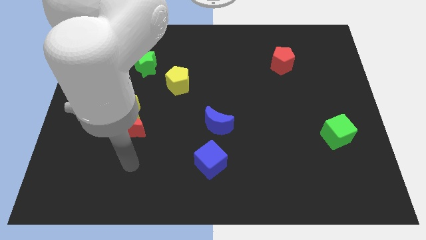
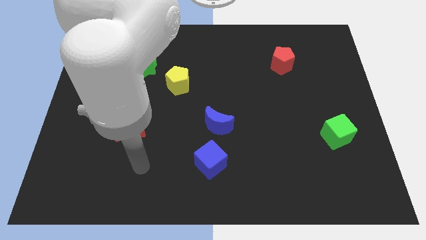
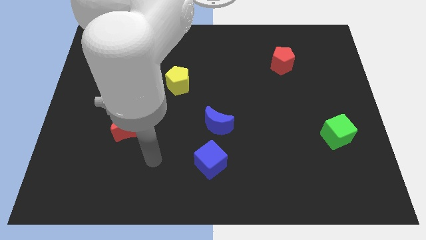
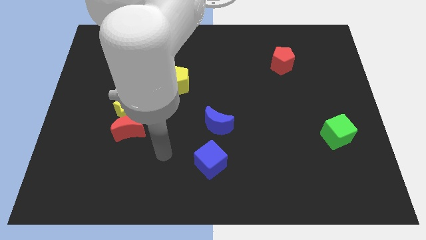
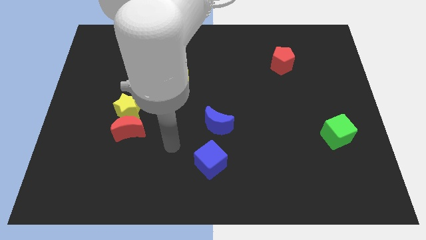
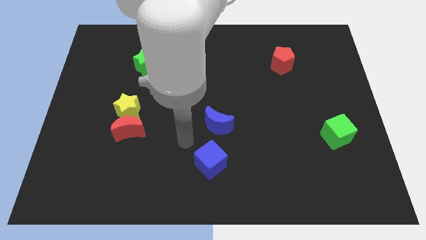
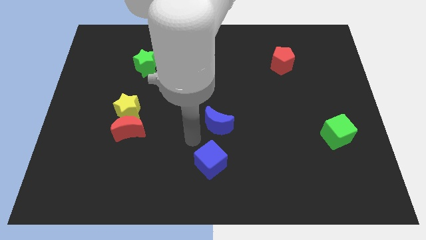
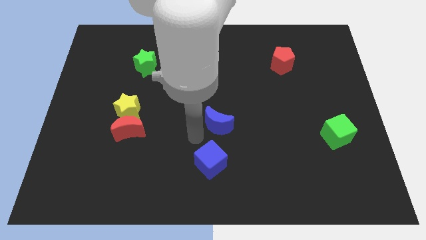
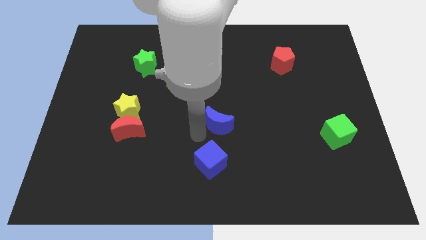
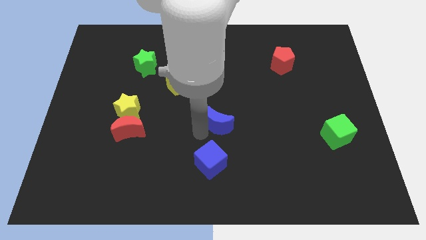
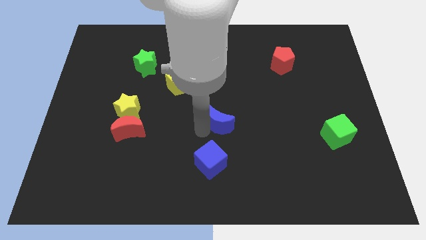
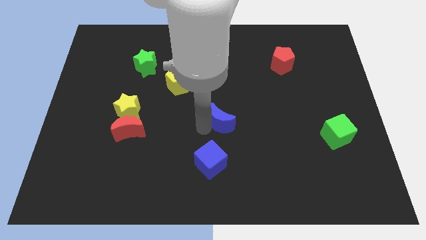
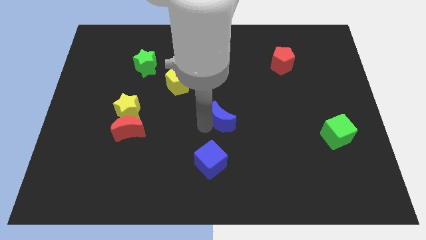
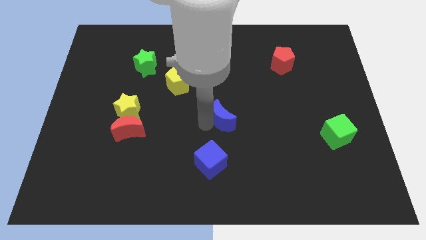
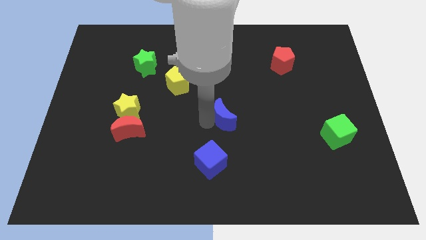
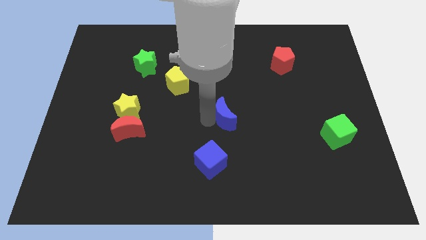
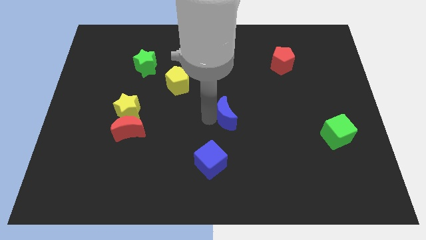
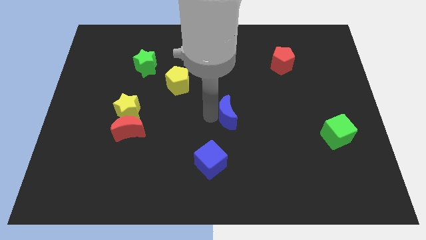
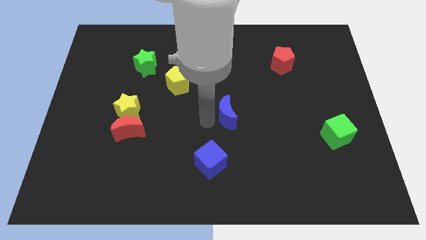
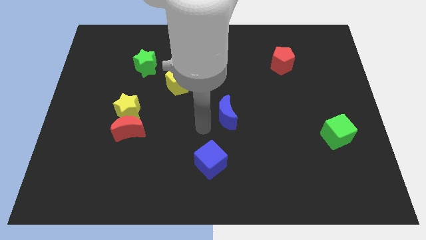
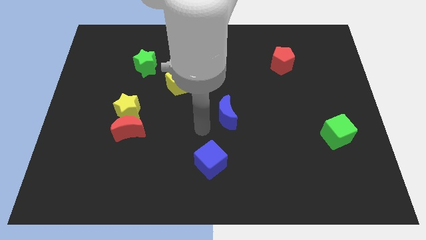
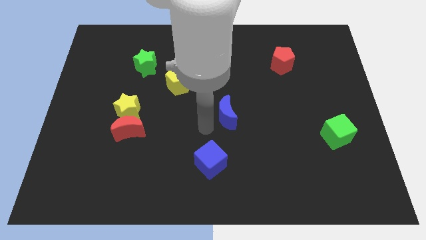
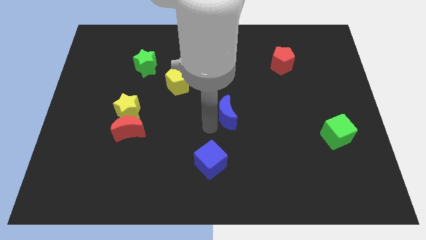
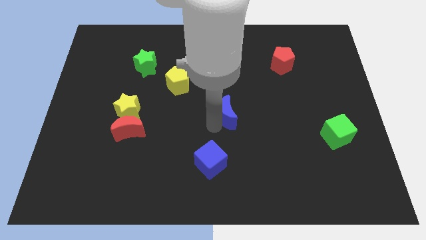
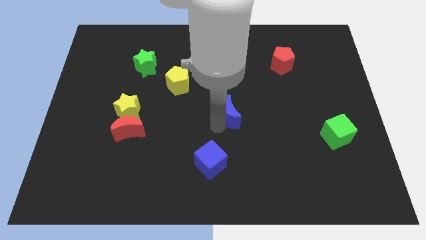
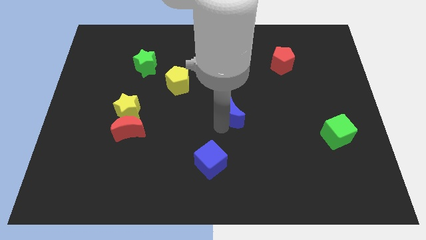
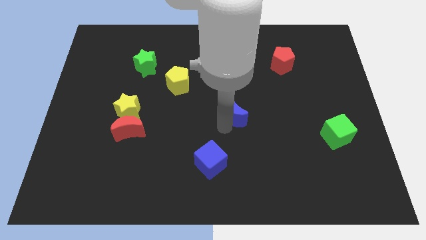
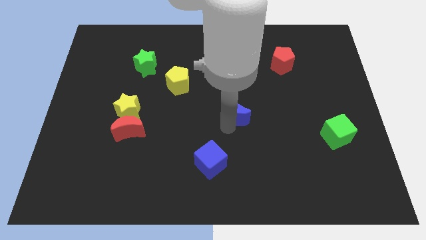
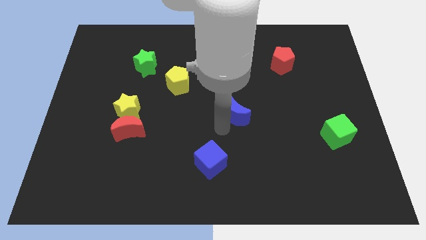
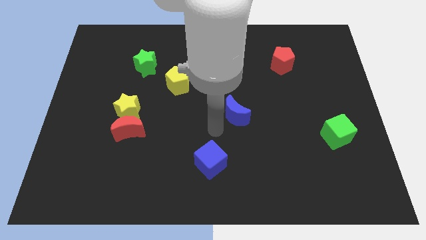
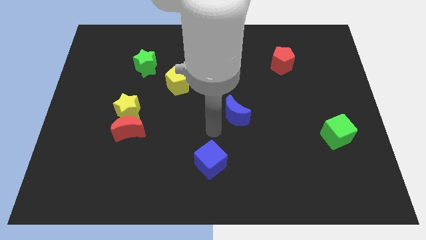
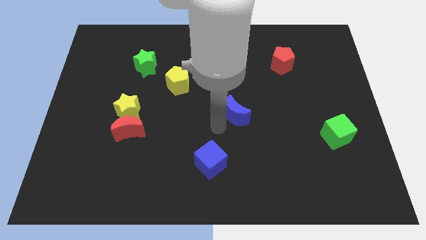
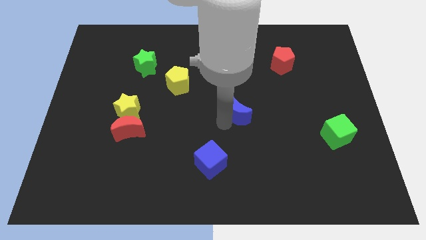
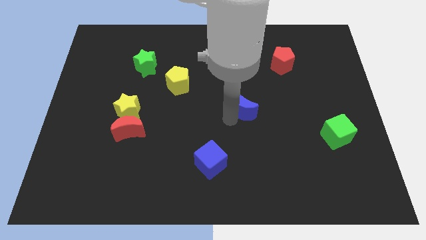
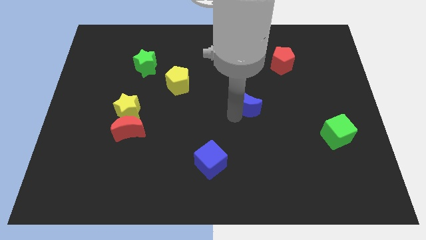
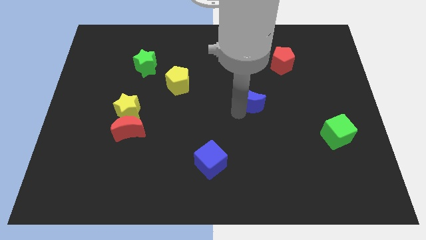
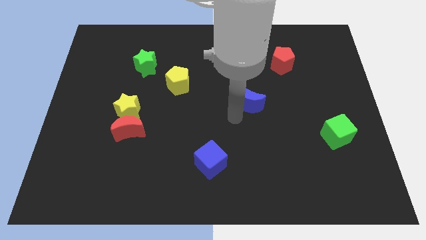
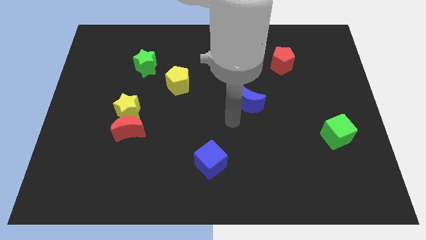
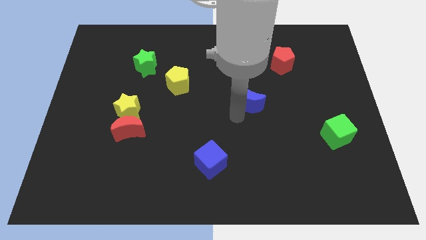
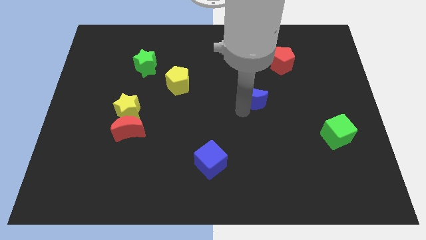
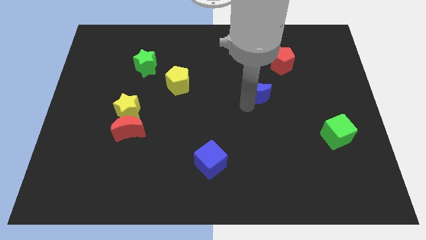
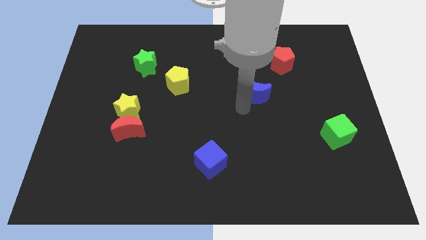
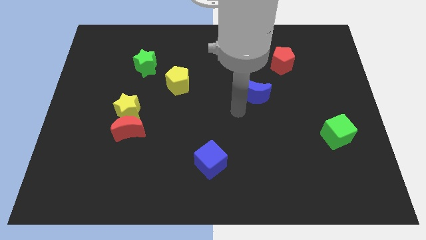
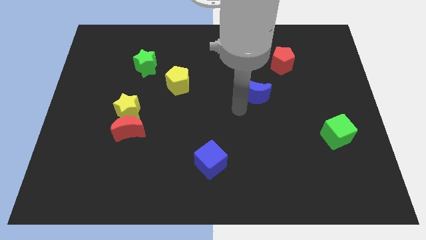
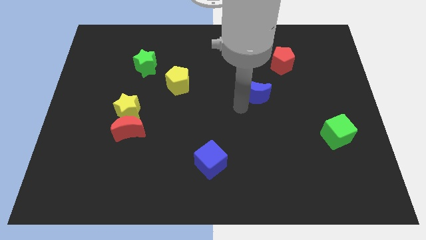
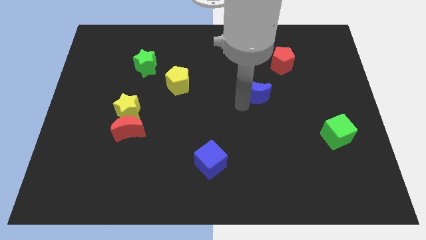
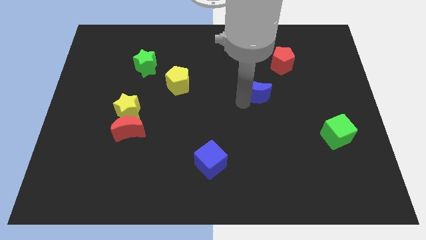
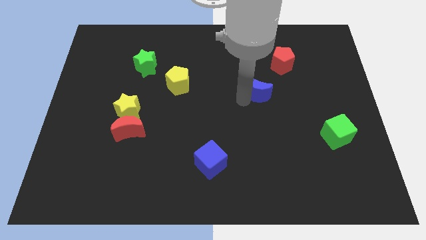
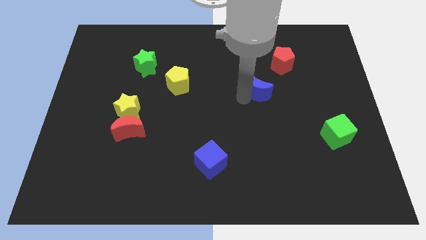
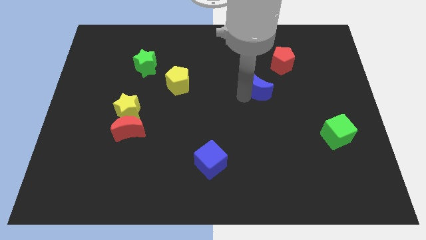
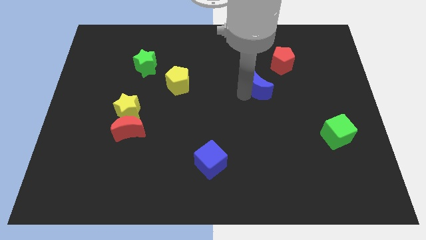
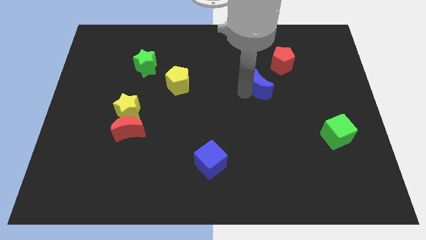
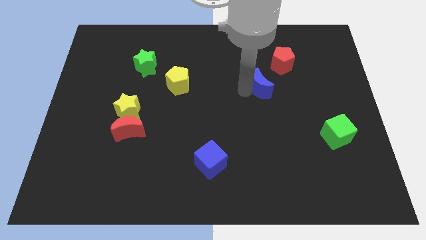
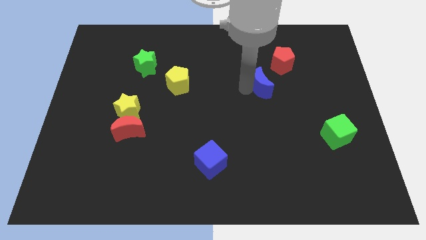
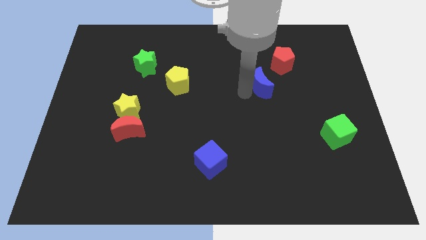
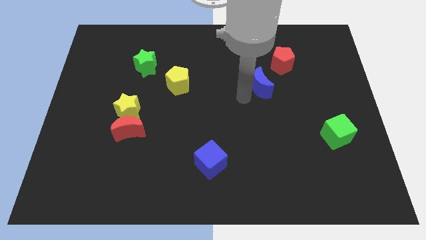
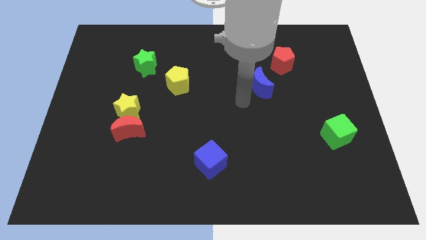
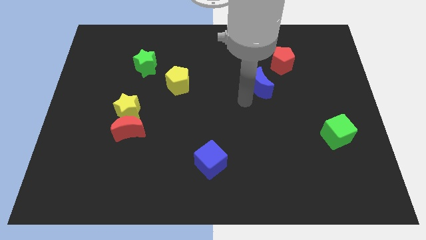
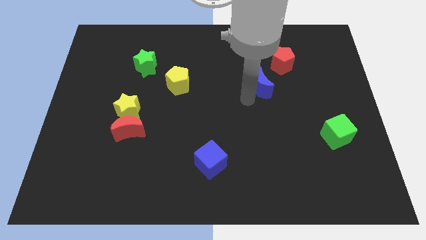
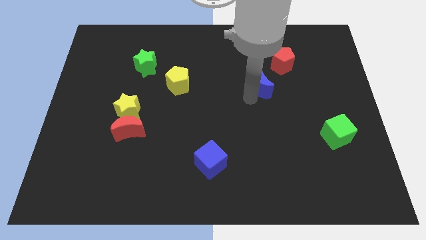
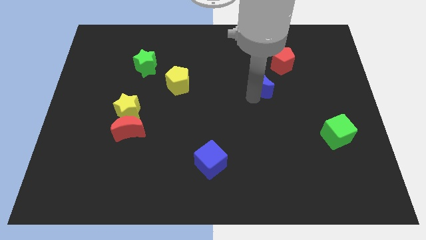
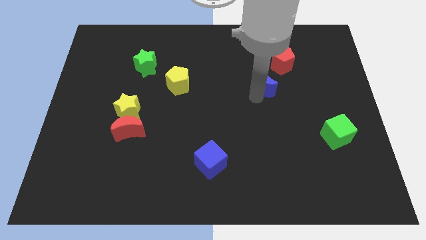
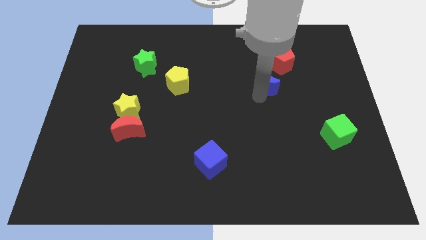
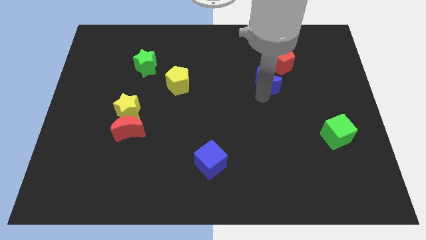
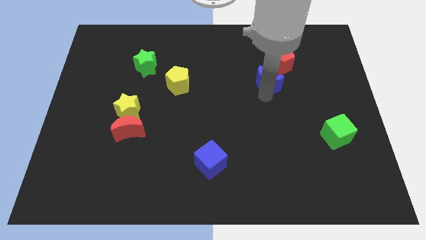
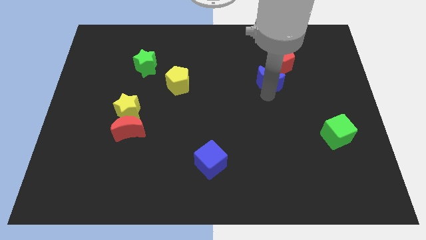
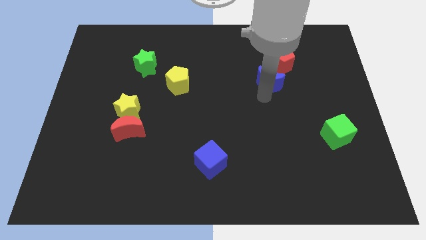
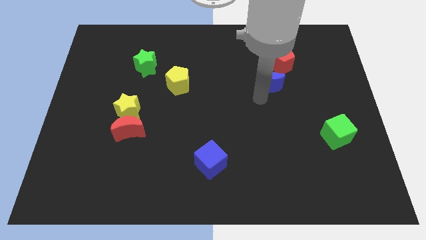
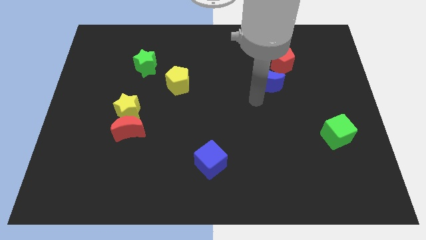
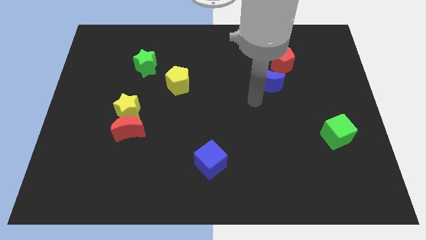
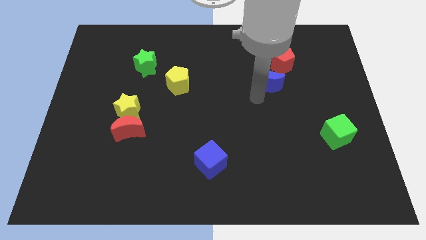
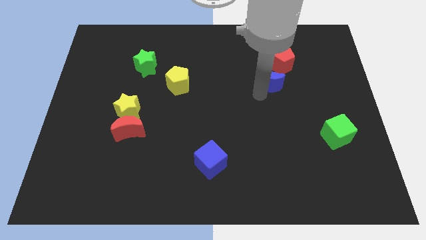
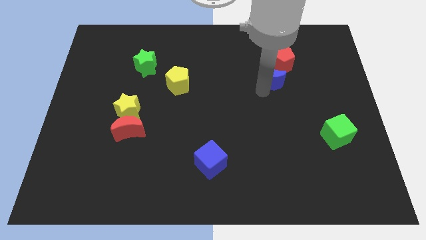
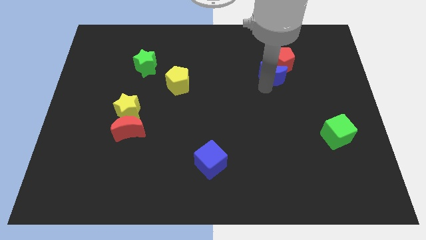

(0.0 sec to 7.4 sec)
put the blue moon close to the red pentagon
